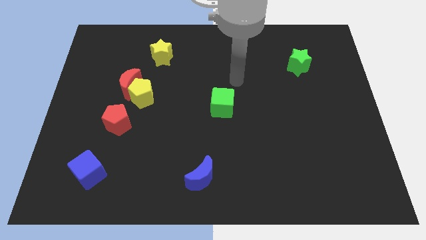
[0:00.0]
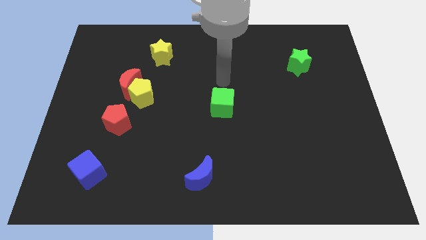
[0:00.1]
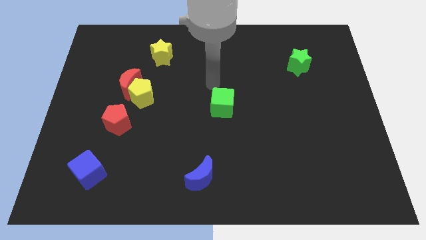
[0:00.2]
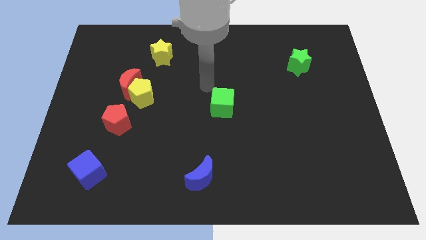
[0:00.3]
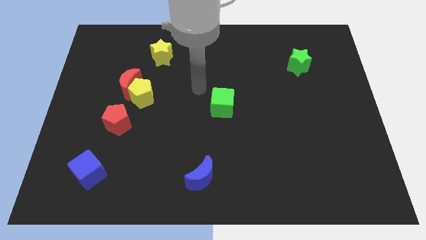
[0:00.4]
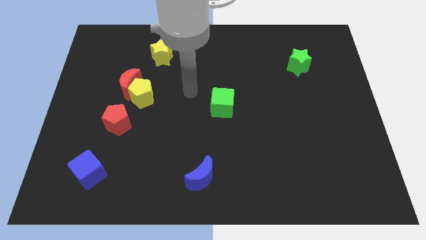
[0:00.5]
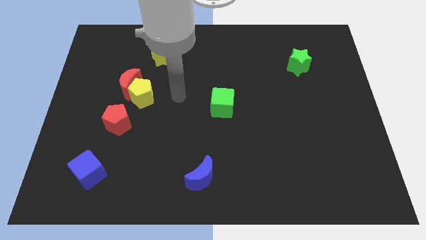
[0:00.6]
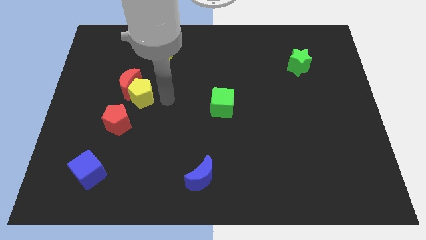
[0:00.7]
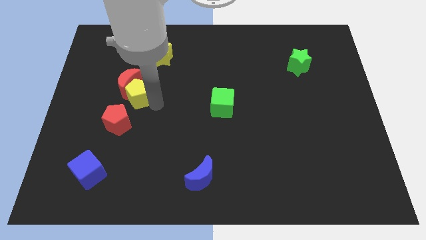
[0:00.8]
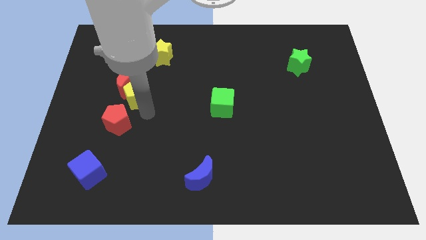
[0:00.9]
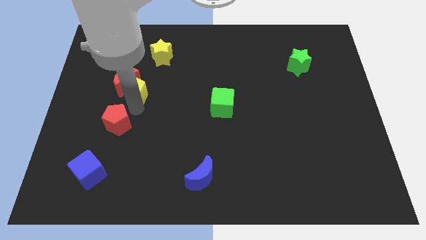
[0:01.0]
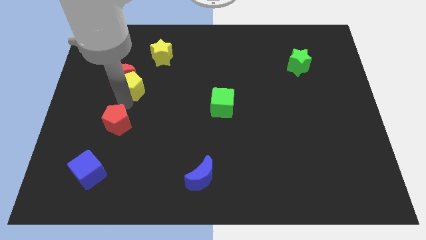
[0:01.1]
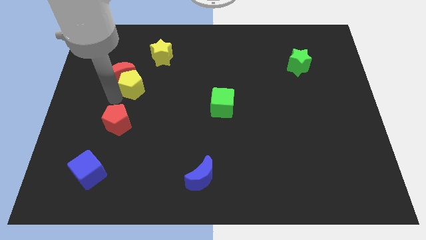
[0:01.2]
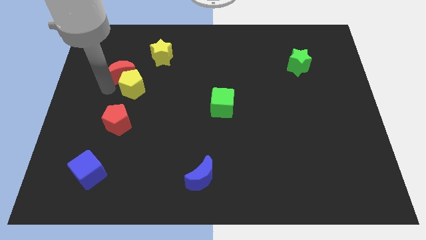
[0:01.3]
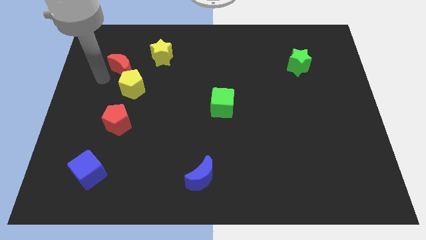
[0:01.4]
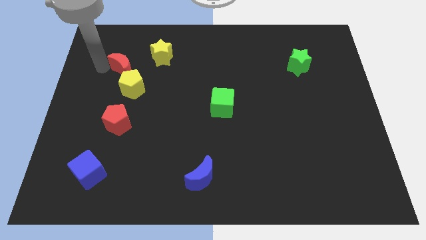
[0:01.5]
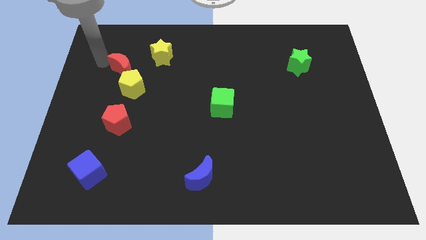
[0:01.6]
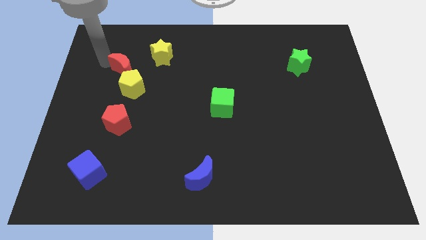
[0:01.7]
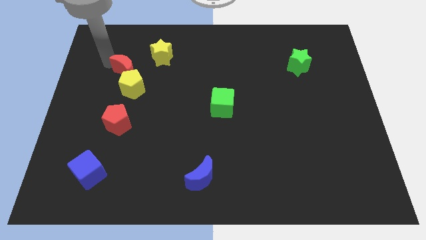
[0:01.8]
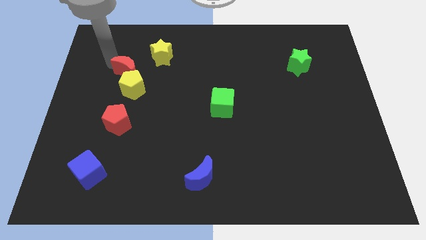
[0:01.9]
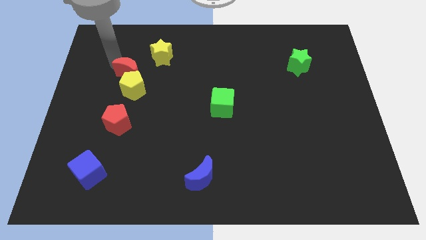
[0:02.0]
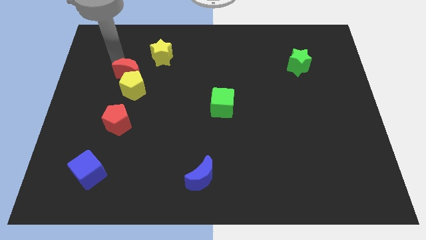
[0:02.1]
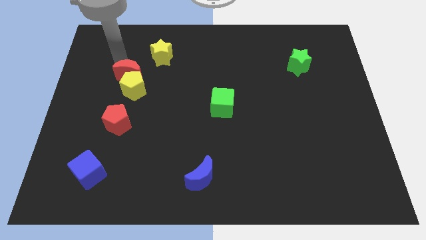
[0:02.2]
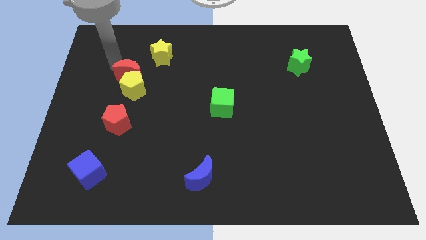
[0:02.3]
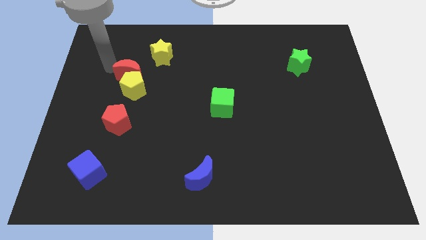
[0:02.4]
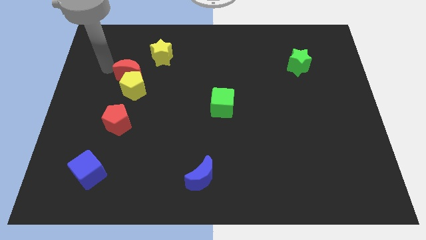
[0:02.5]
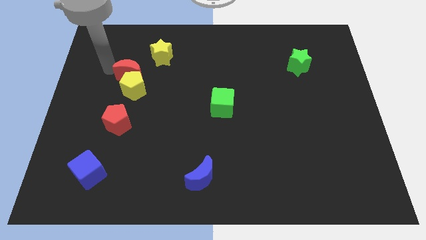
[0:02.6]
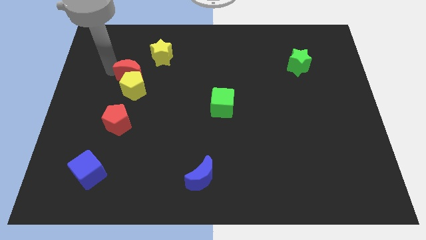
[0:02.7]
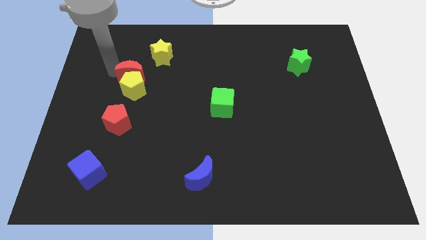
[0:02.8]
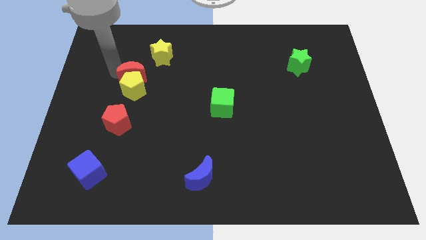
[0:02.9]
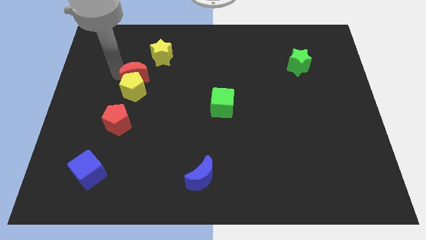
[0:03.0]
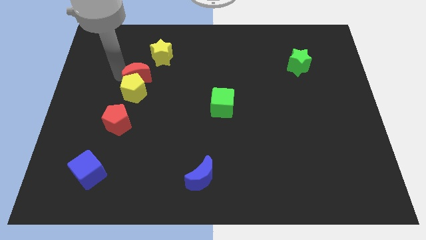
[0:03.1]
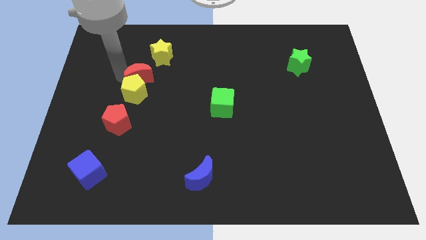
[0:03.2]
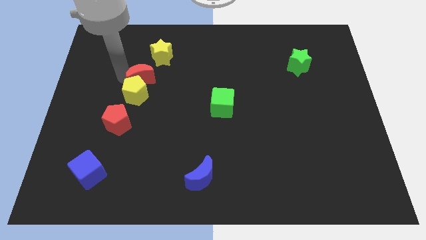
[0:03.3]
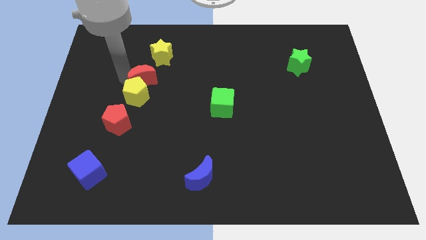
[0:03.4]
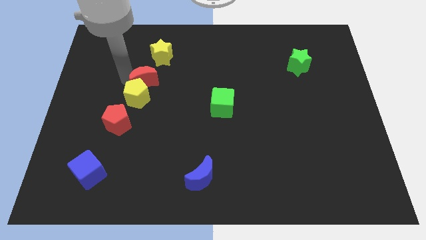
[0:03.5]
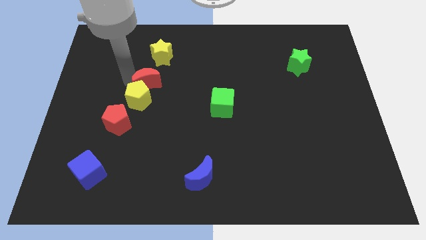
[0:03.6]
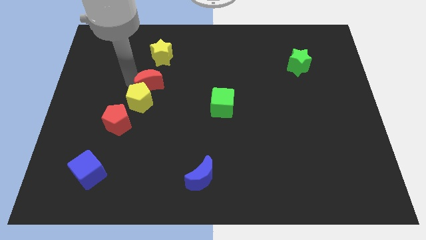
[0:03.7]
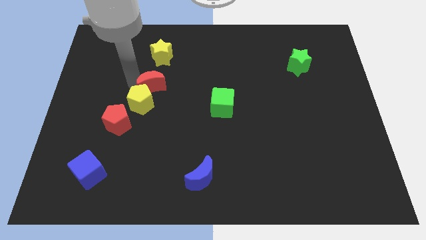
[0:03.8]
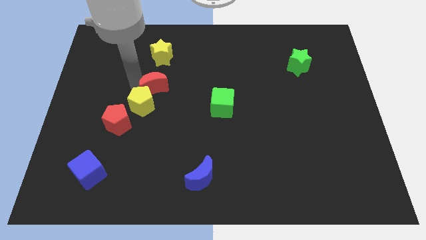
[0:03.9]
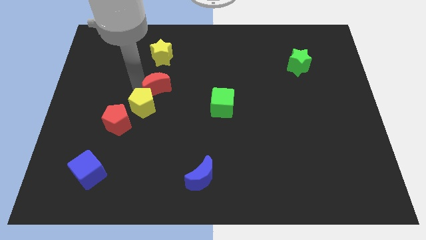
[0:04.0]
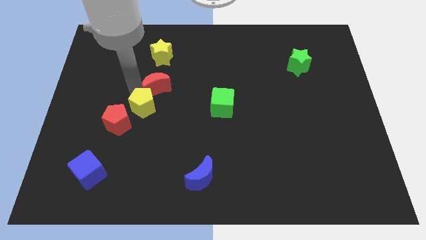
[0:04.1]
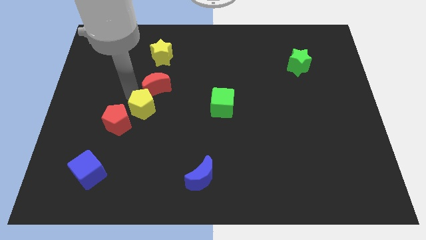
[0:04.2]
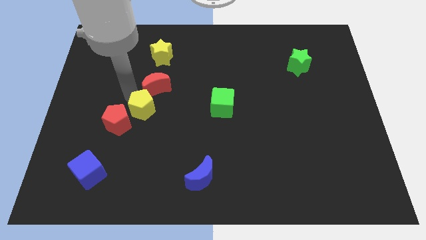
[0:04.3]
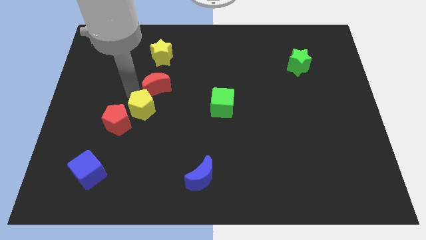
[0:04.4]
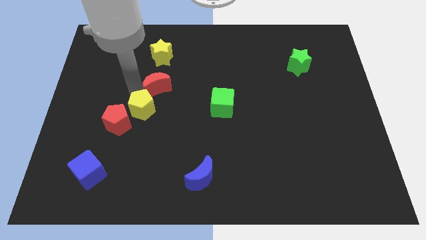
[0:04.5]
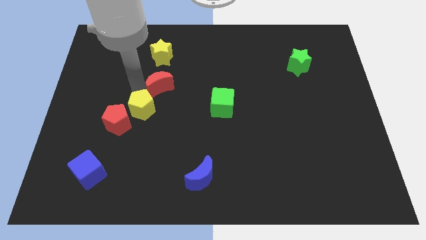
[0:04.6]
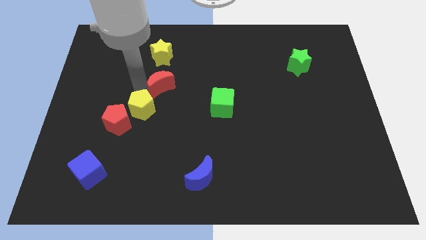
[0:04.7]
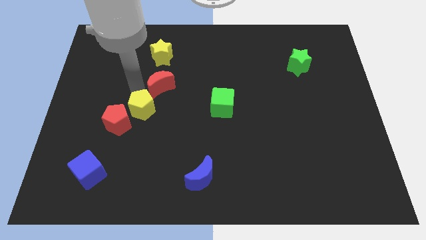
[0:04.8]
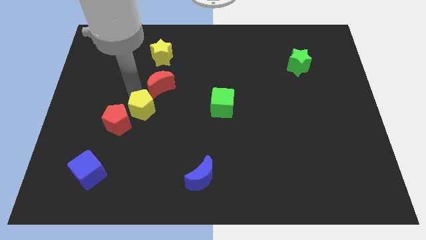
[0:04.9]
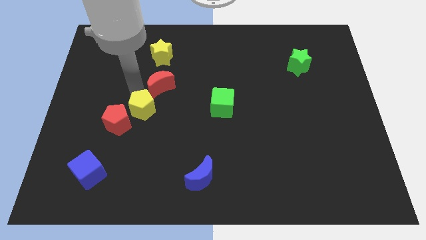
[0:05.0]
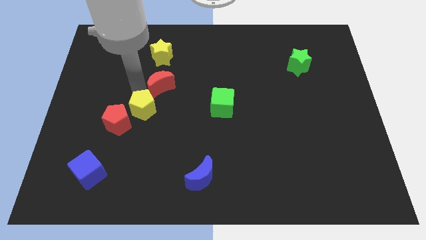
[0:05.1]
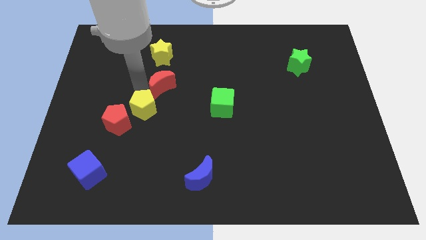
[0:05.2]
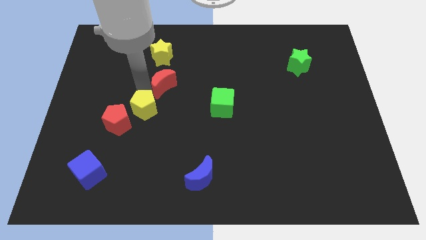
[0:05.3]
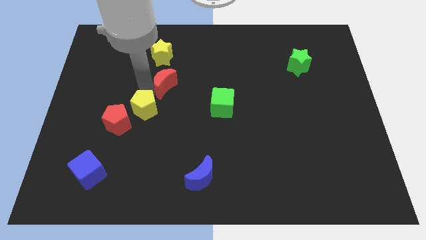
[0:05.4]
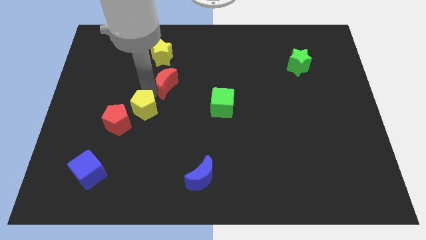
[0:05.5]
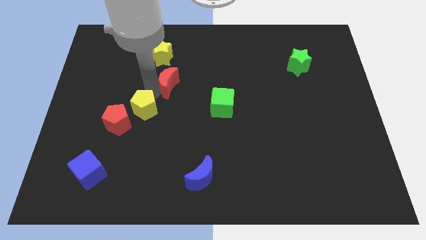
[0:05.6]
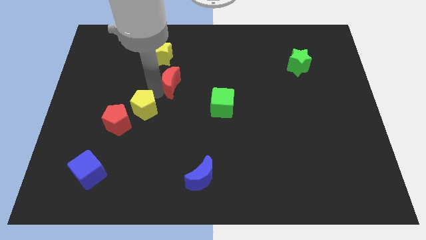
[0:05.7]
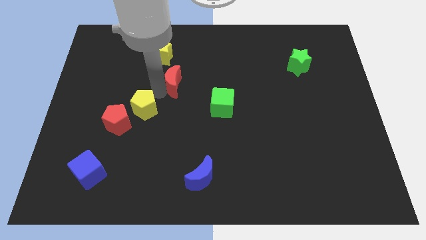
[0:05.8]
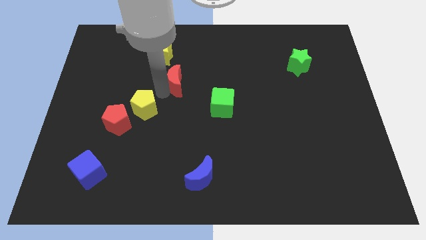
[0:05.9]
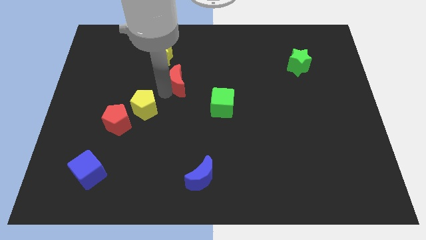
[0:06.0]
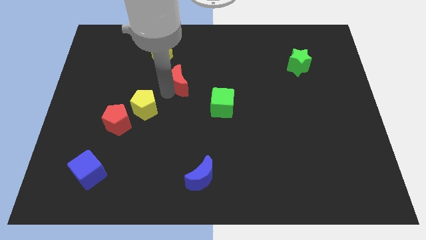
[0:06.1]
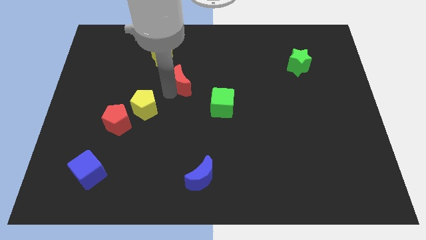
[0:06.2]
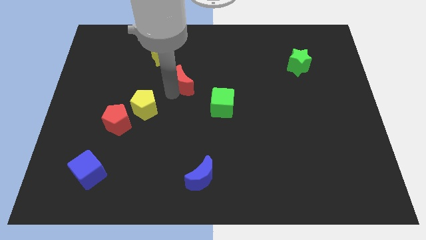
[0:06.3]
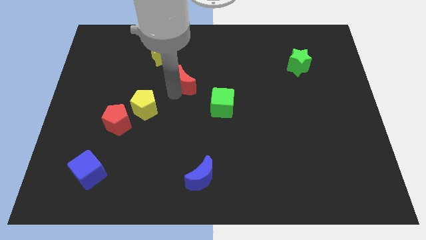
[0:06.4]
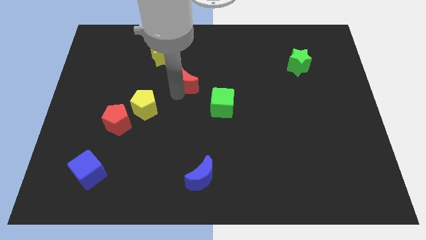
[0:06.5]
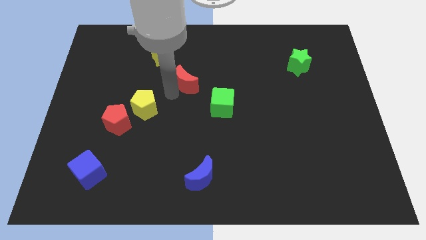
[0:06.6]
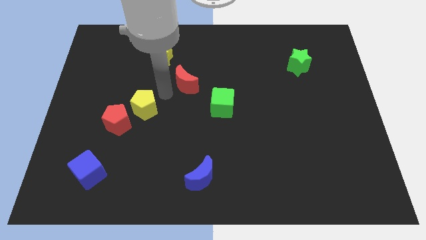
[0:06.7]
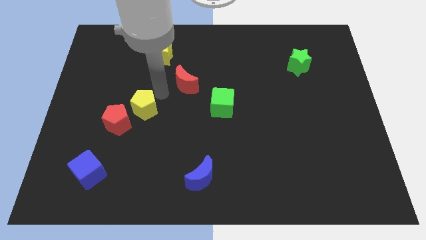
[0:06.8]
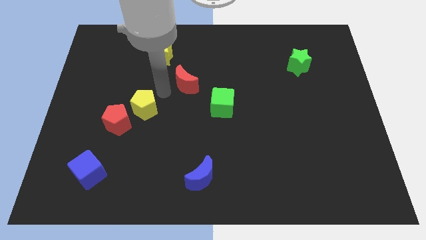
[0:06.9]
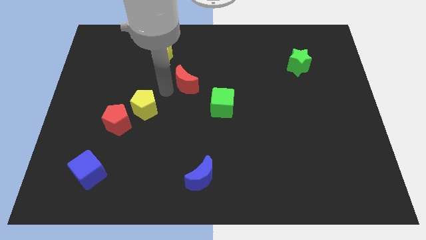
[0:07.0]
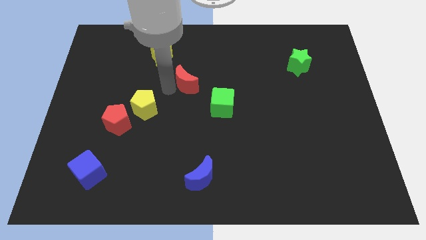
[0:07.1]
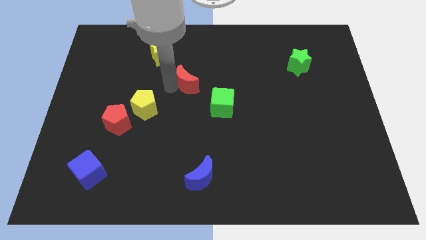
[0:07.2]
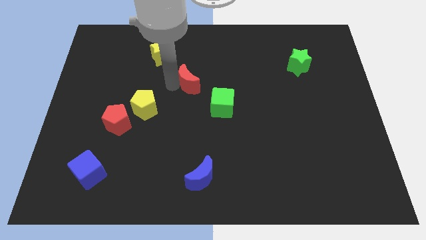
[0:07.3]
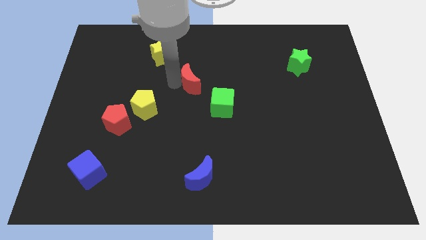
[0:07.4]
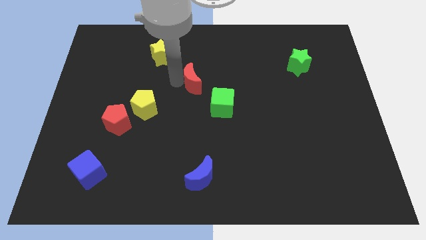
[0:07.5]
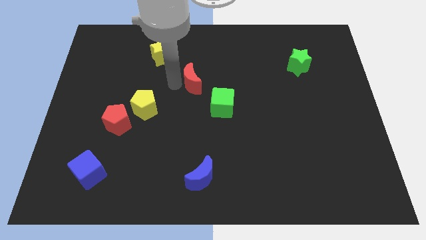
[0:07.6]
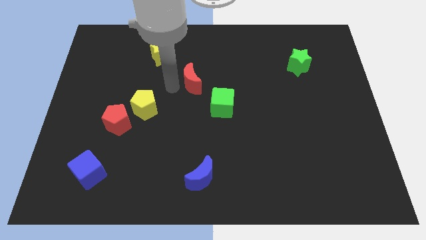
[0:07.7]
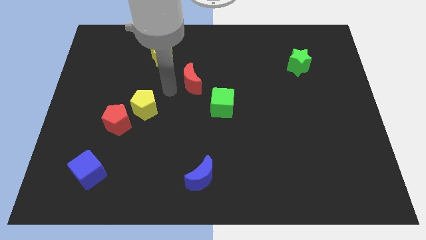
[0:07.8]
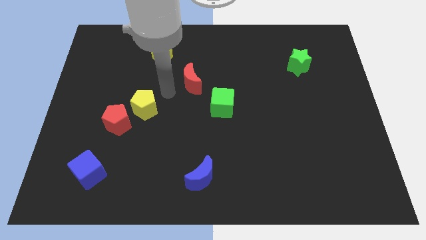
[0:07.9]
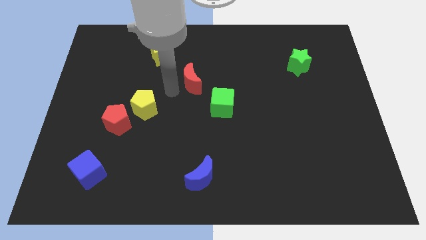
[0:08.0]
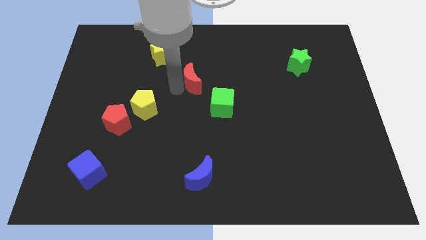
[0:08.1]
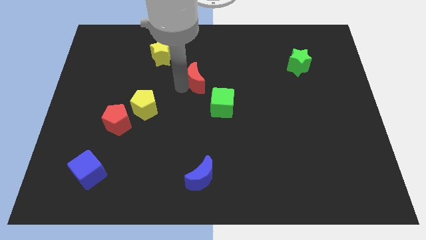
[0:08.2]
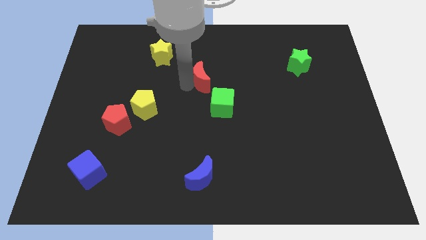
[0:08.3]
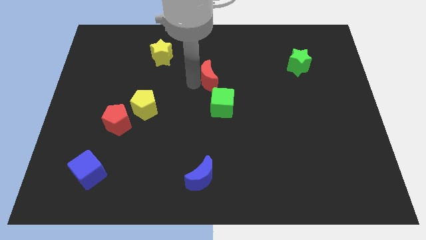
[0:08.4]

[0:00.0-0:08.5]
move the red moon to the top of the green cube
